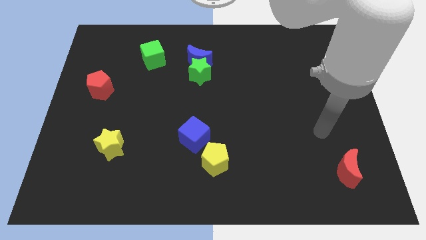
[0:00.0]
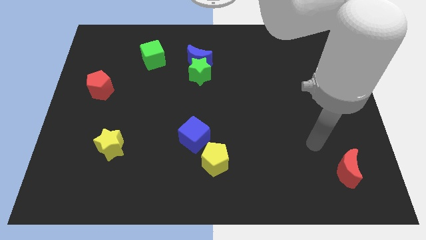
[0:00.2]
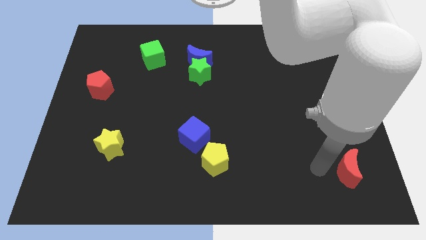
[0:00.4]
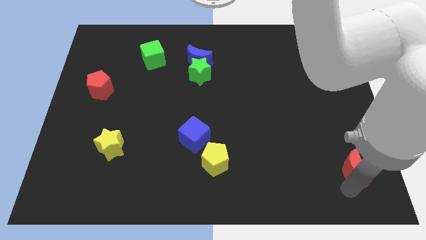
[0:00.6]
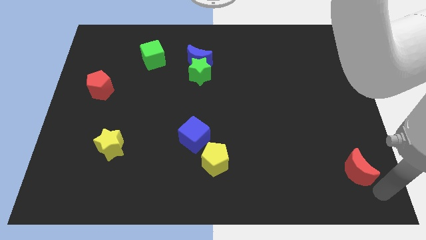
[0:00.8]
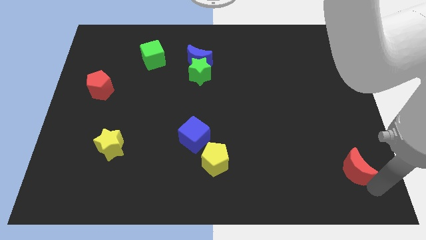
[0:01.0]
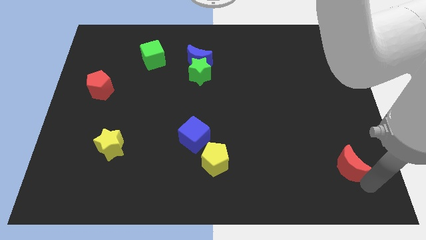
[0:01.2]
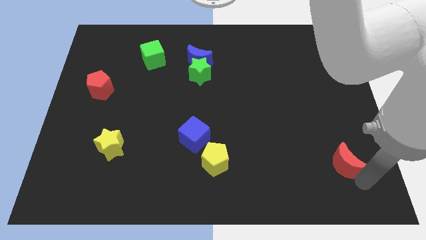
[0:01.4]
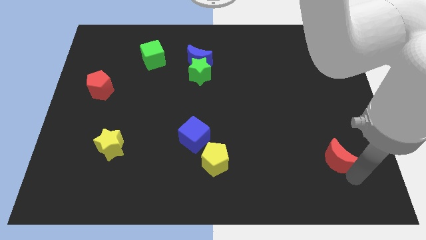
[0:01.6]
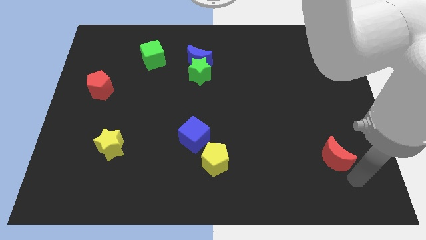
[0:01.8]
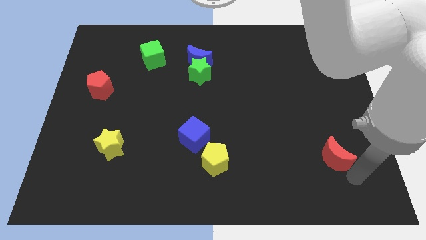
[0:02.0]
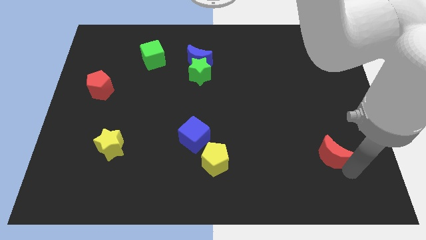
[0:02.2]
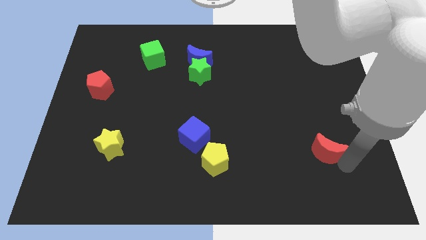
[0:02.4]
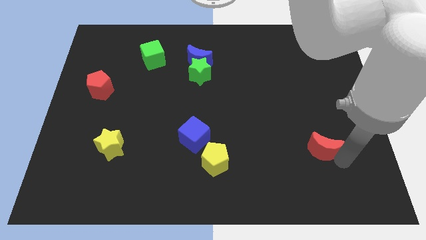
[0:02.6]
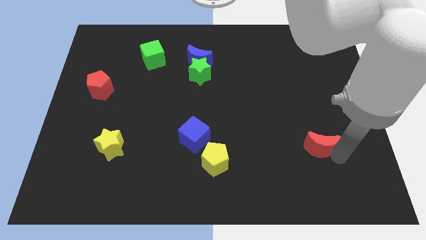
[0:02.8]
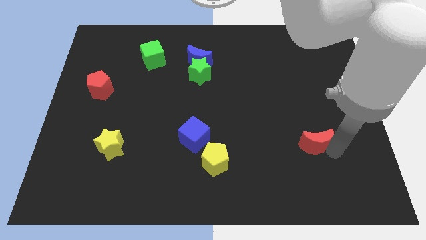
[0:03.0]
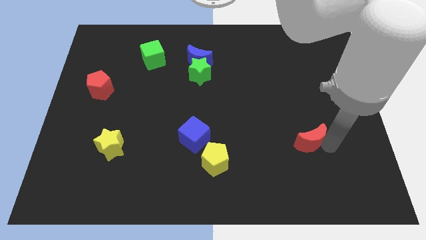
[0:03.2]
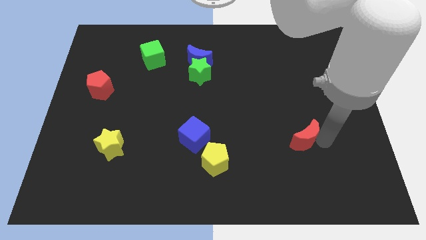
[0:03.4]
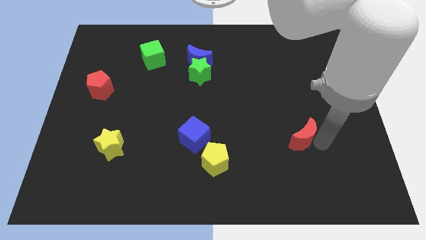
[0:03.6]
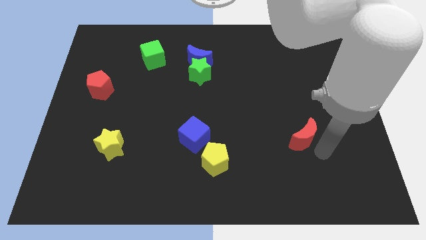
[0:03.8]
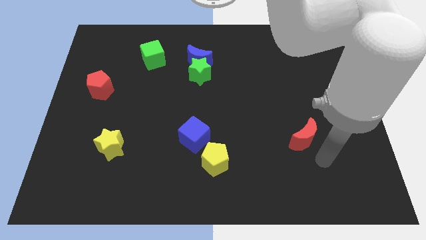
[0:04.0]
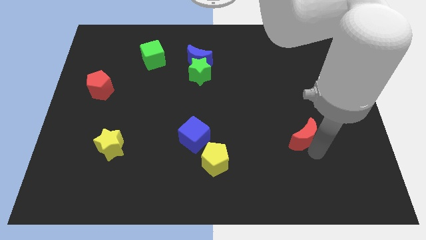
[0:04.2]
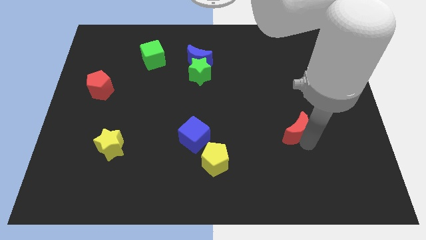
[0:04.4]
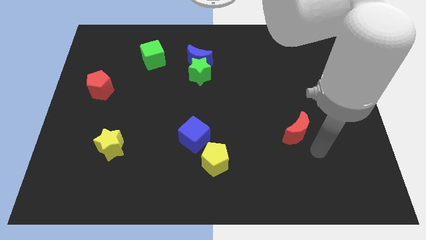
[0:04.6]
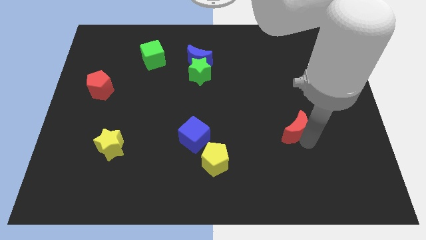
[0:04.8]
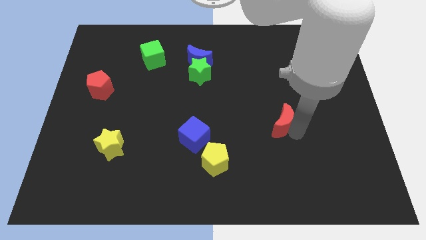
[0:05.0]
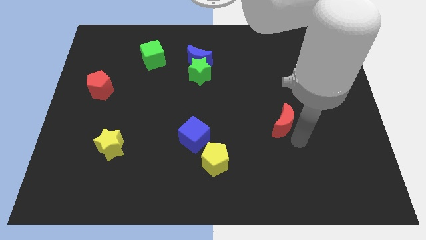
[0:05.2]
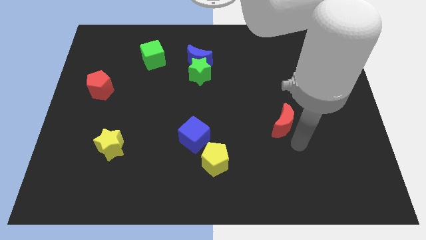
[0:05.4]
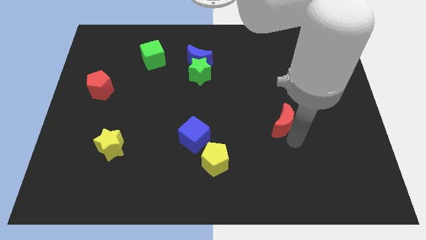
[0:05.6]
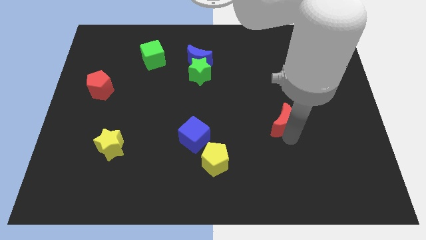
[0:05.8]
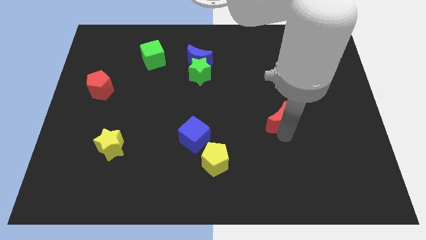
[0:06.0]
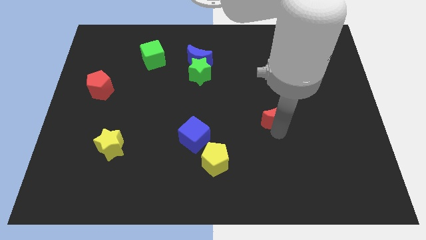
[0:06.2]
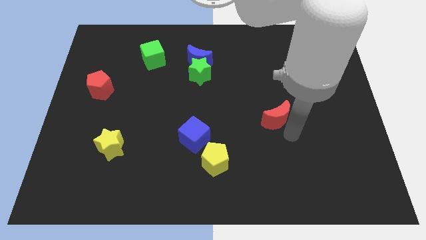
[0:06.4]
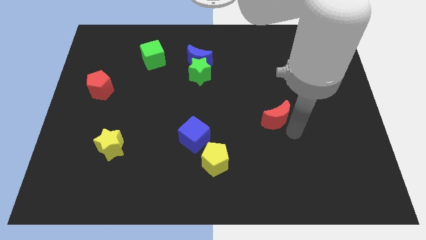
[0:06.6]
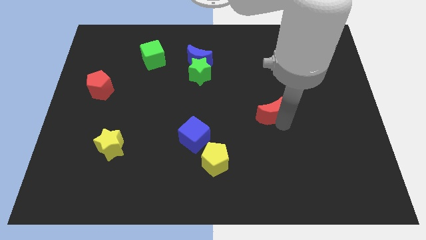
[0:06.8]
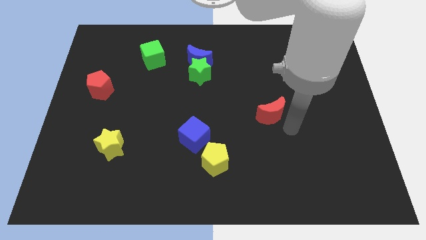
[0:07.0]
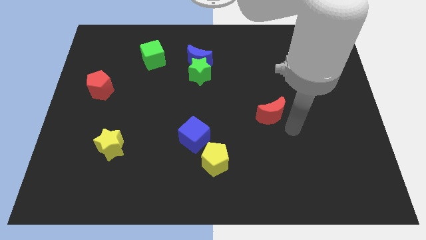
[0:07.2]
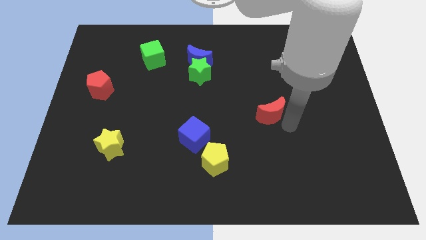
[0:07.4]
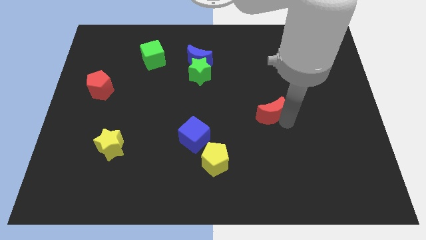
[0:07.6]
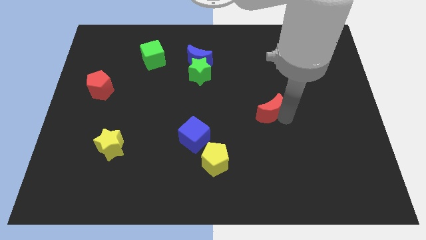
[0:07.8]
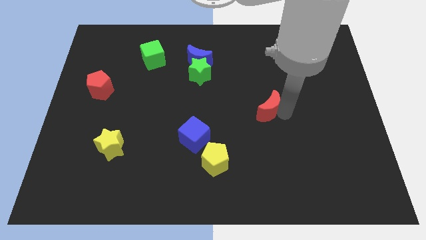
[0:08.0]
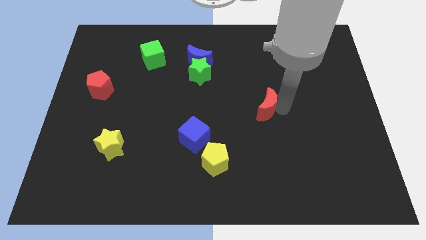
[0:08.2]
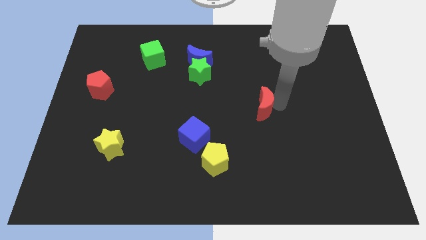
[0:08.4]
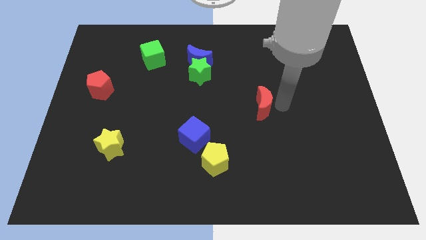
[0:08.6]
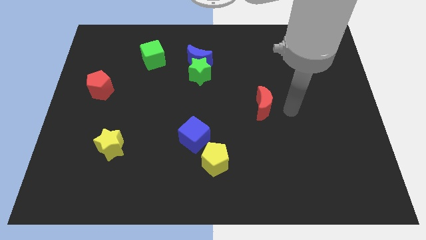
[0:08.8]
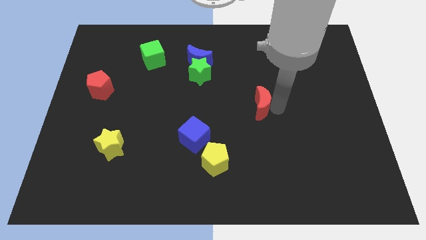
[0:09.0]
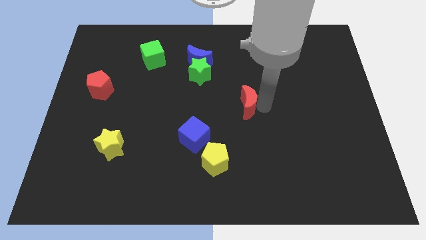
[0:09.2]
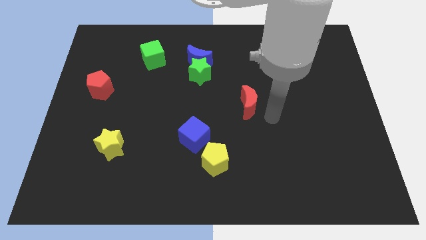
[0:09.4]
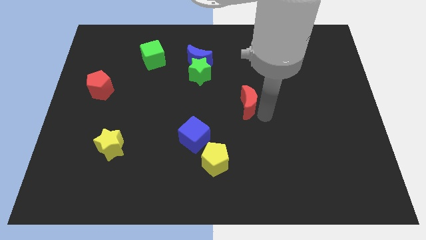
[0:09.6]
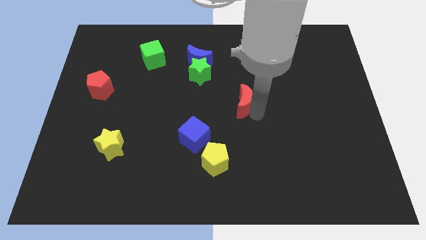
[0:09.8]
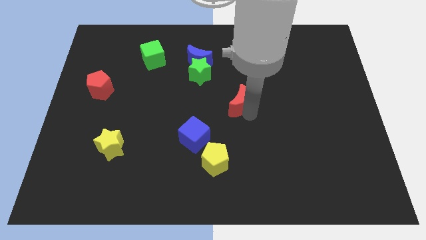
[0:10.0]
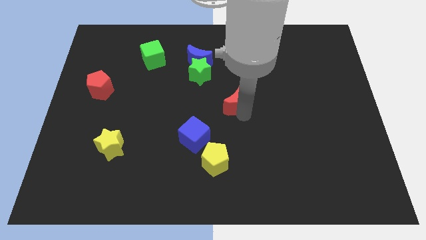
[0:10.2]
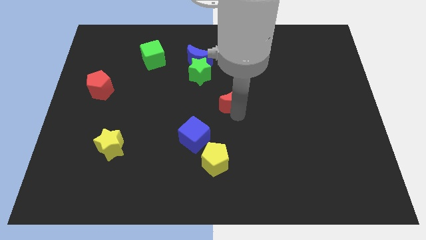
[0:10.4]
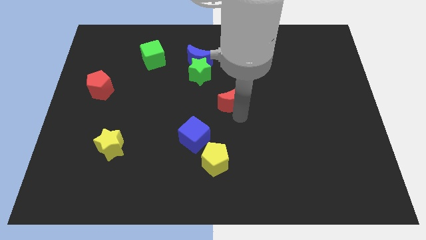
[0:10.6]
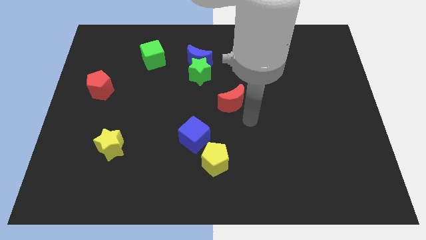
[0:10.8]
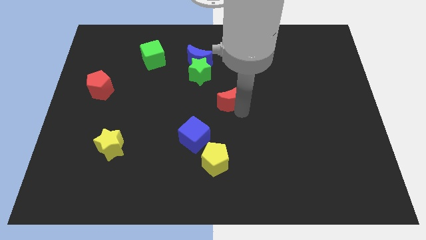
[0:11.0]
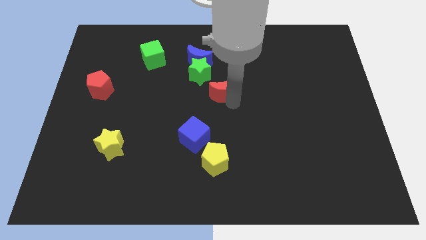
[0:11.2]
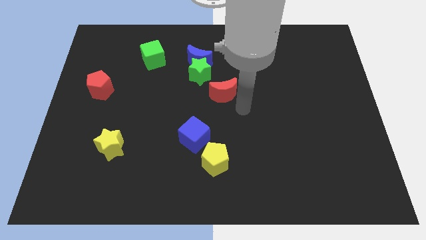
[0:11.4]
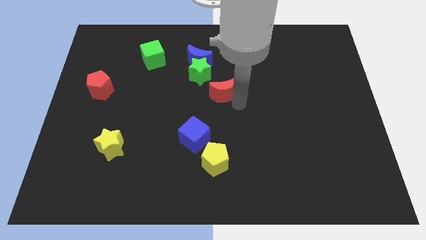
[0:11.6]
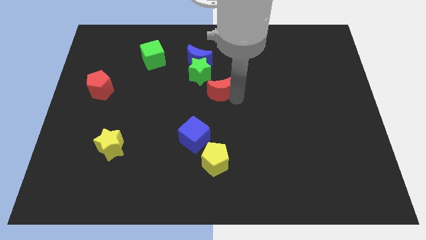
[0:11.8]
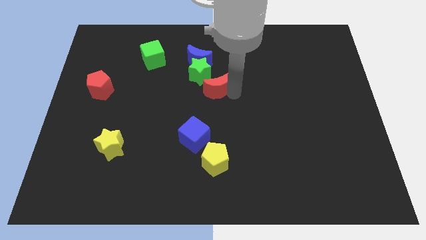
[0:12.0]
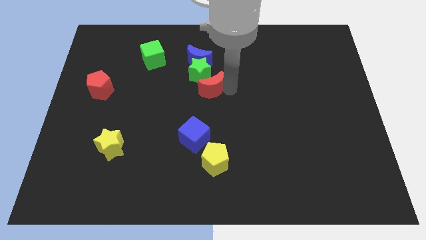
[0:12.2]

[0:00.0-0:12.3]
move the red moon to the green star
